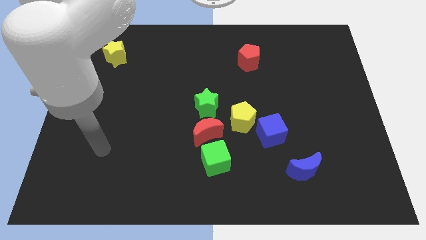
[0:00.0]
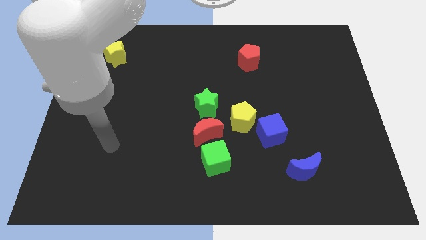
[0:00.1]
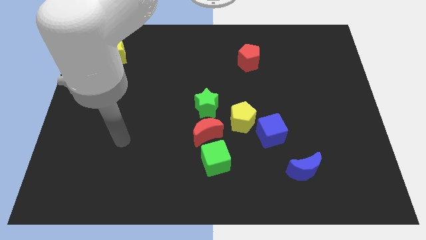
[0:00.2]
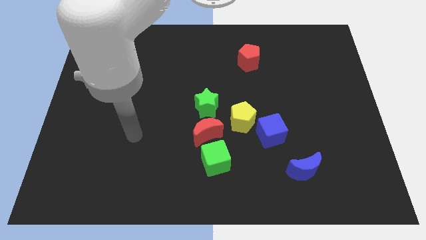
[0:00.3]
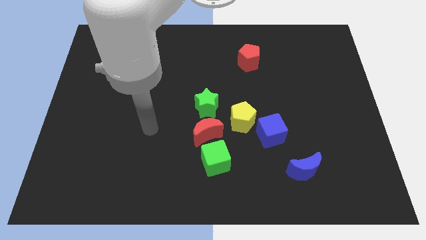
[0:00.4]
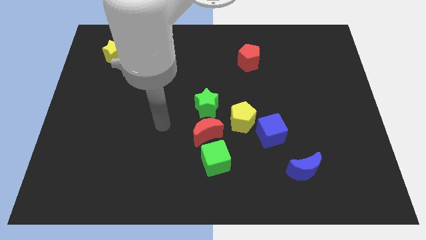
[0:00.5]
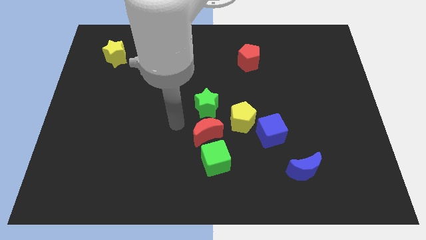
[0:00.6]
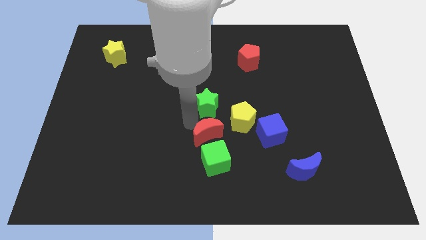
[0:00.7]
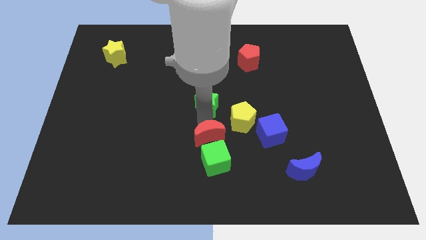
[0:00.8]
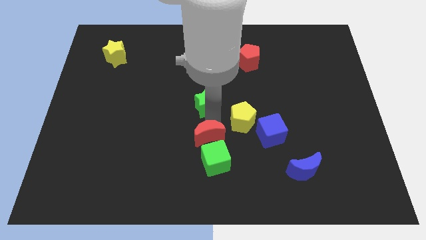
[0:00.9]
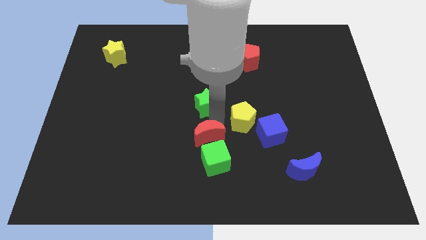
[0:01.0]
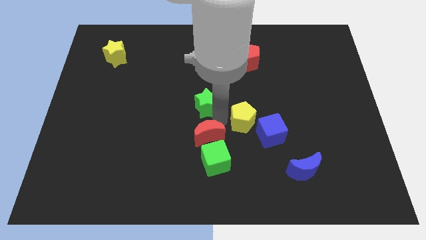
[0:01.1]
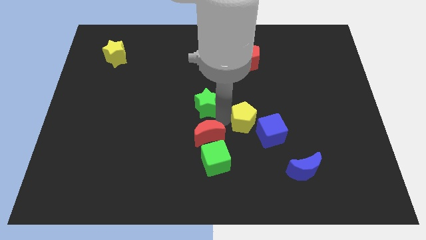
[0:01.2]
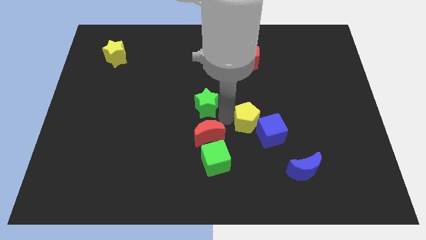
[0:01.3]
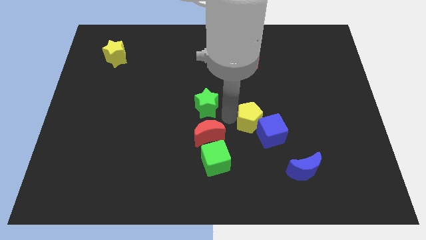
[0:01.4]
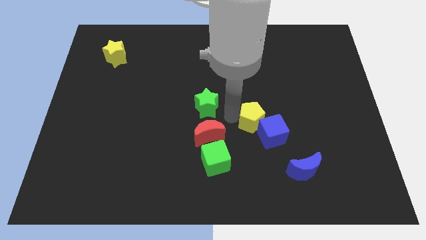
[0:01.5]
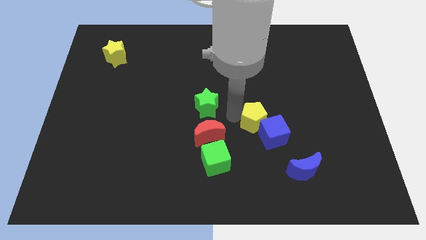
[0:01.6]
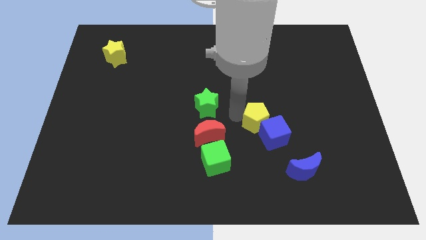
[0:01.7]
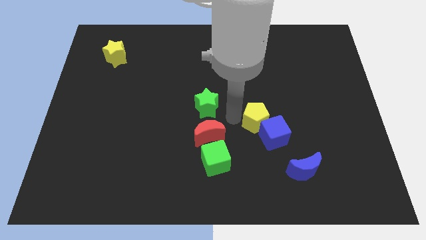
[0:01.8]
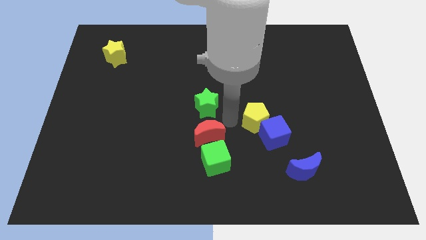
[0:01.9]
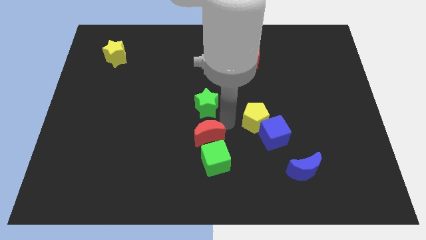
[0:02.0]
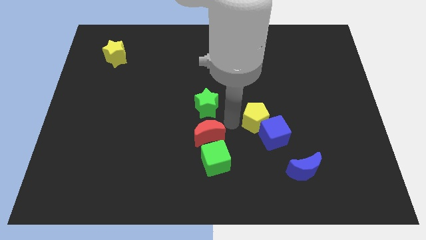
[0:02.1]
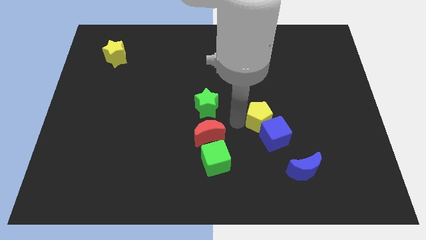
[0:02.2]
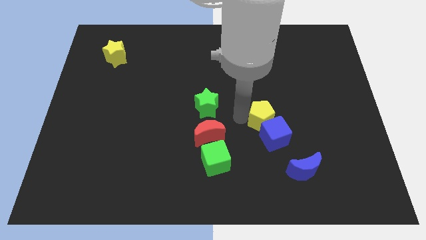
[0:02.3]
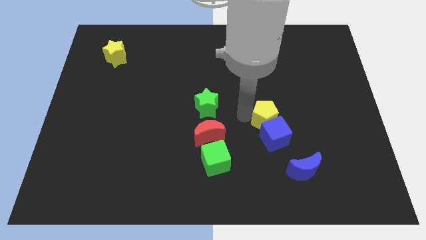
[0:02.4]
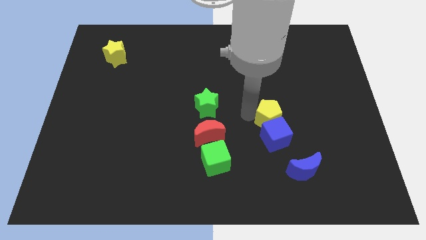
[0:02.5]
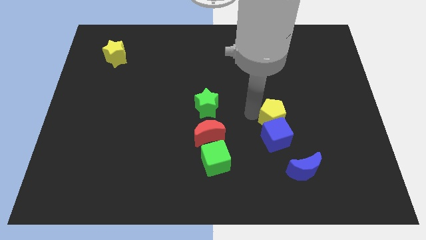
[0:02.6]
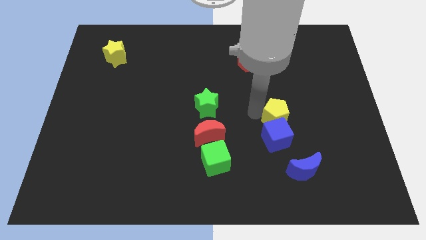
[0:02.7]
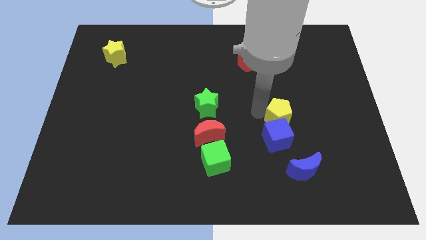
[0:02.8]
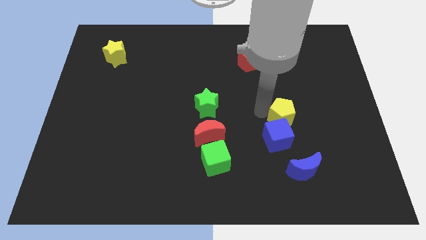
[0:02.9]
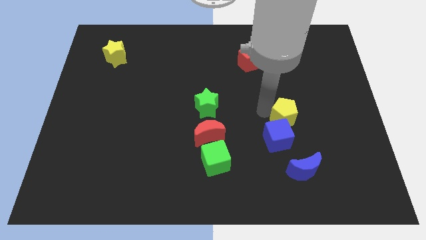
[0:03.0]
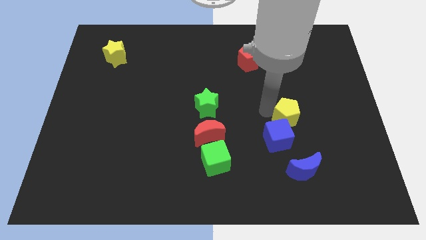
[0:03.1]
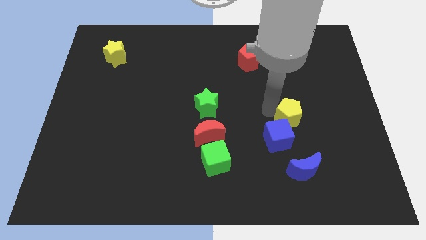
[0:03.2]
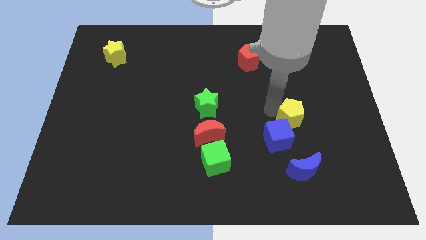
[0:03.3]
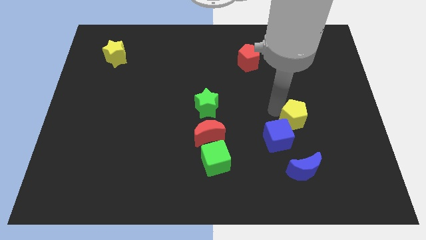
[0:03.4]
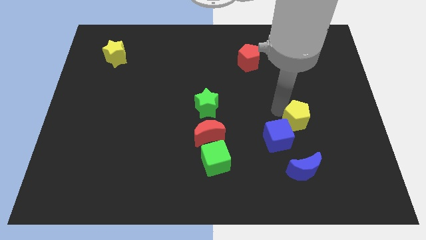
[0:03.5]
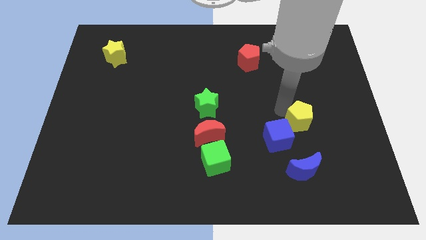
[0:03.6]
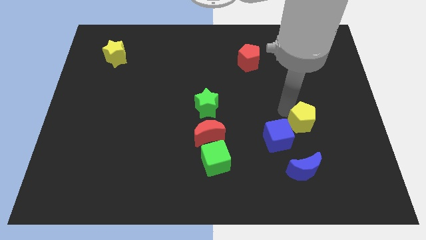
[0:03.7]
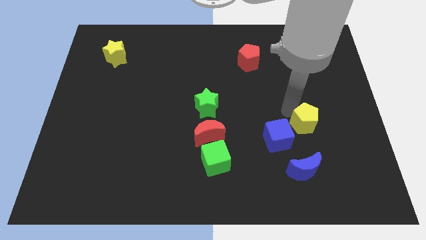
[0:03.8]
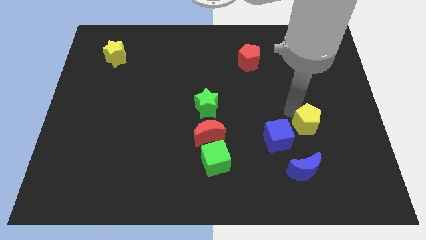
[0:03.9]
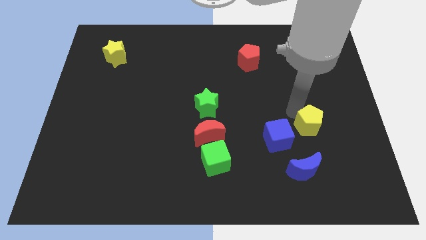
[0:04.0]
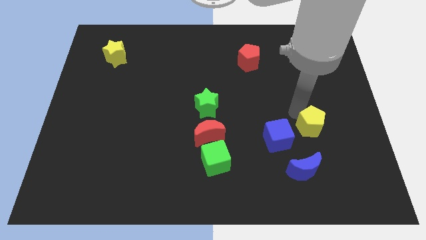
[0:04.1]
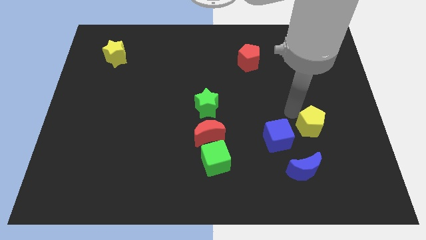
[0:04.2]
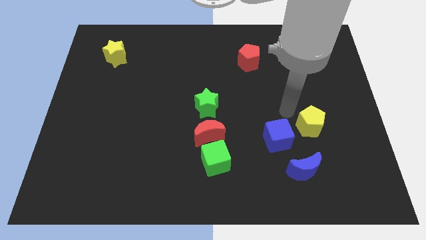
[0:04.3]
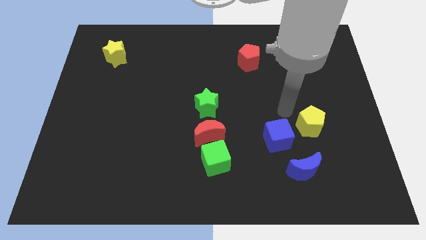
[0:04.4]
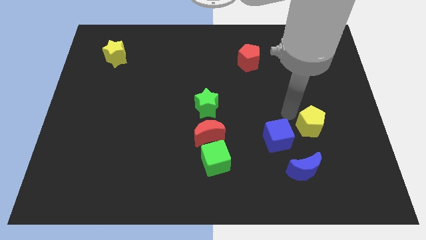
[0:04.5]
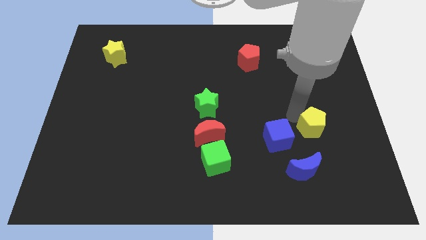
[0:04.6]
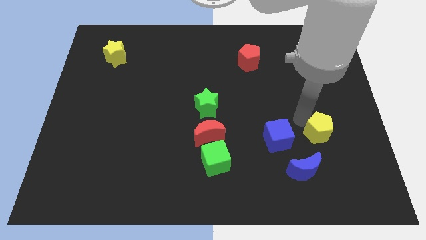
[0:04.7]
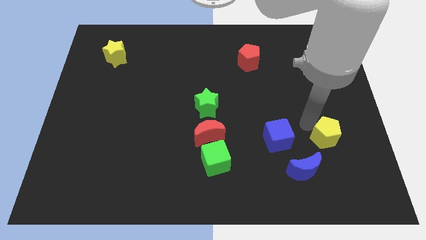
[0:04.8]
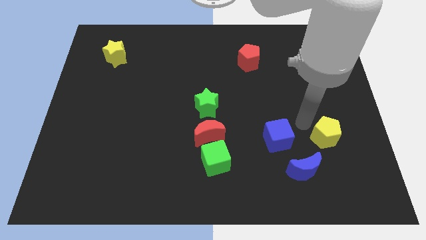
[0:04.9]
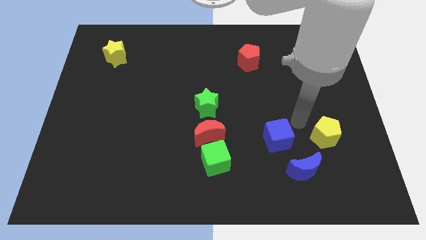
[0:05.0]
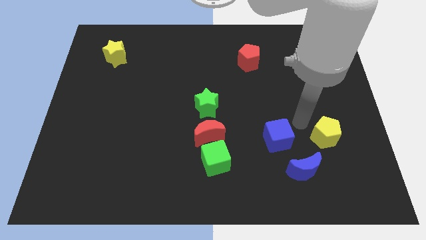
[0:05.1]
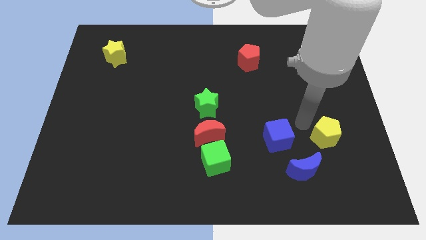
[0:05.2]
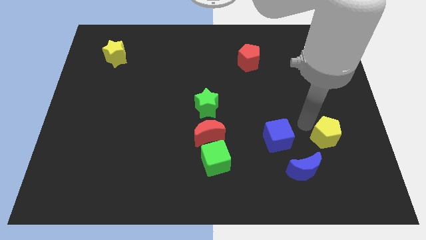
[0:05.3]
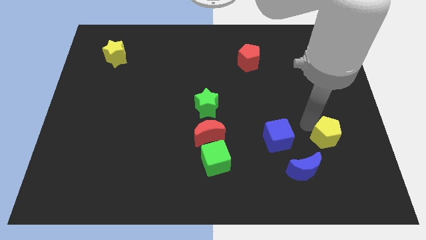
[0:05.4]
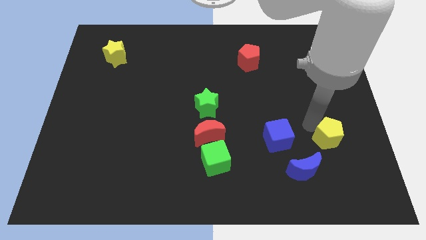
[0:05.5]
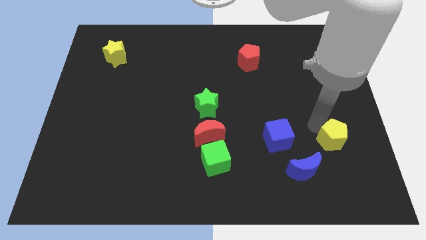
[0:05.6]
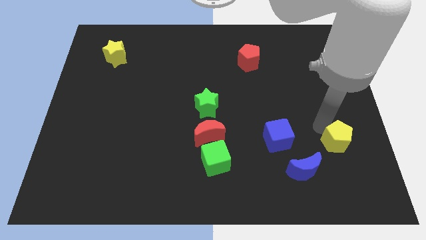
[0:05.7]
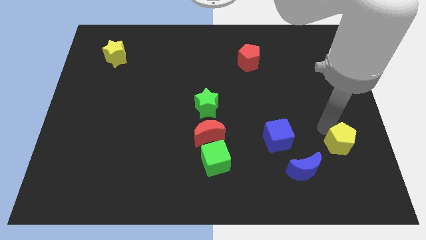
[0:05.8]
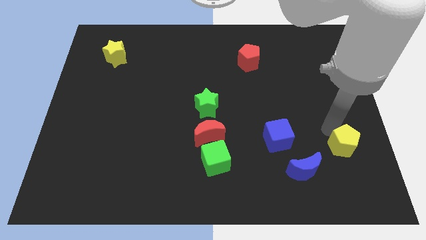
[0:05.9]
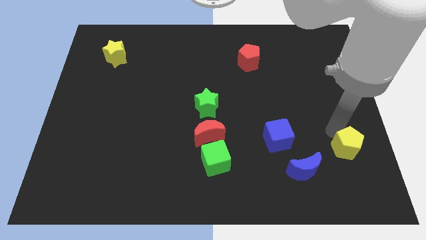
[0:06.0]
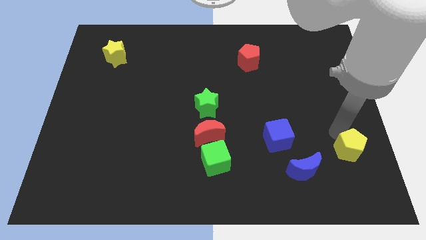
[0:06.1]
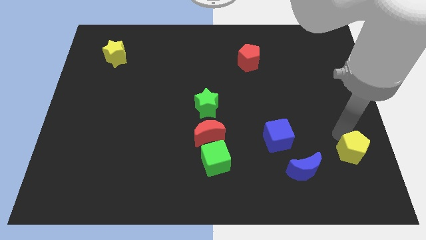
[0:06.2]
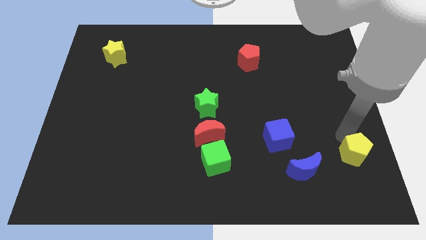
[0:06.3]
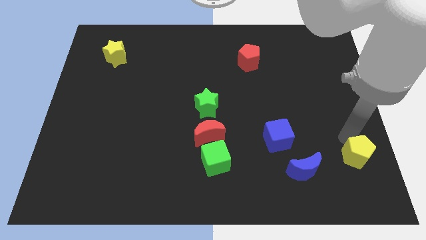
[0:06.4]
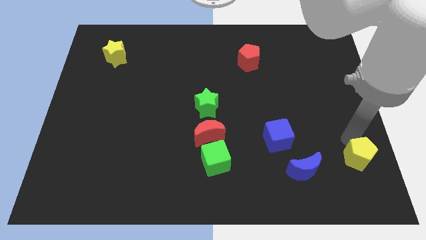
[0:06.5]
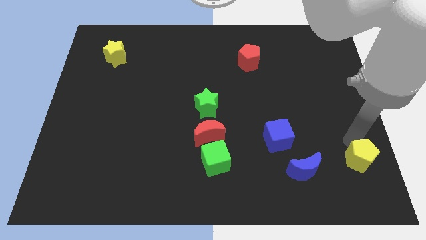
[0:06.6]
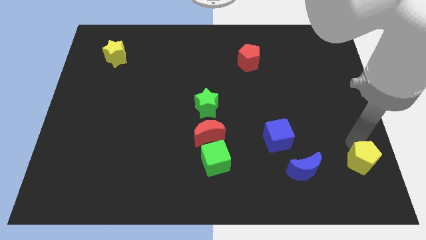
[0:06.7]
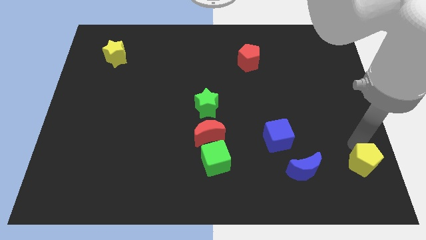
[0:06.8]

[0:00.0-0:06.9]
move the yellow pentagon to the lower right corner
